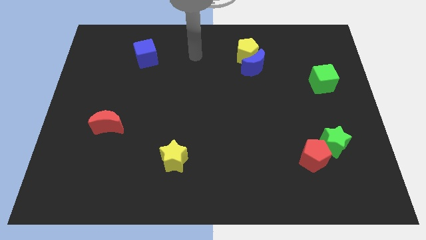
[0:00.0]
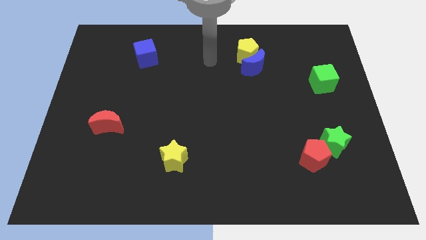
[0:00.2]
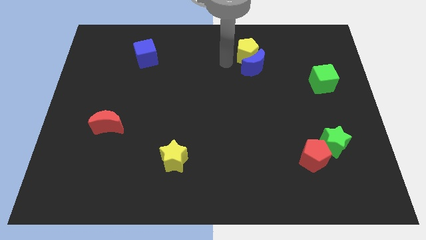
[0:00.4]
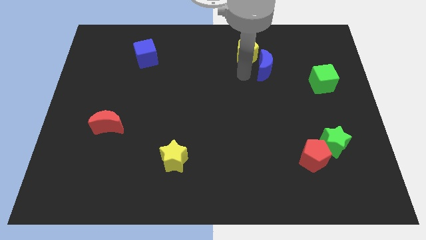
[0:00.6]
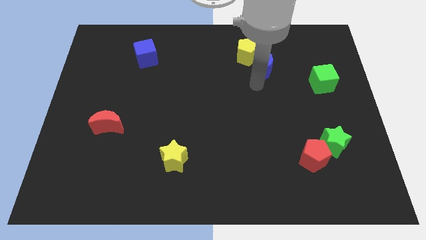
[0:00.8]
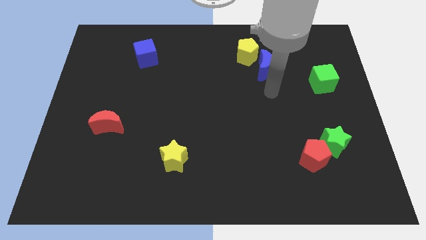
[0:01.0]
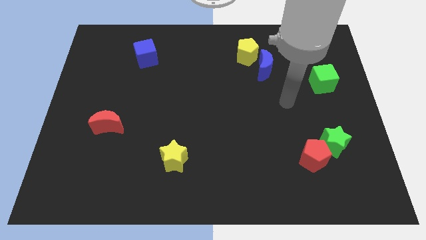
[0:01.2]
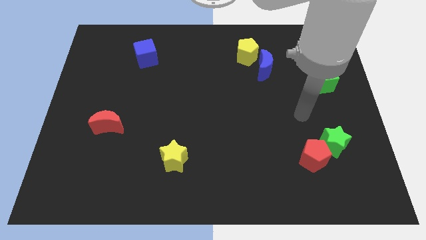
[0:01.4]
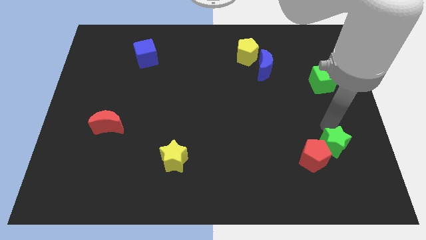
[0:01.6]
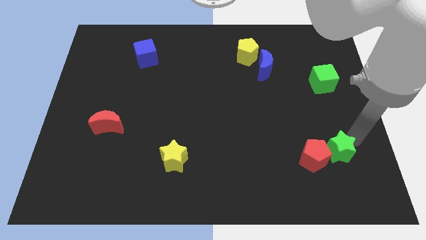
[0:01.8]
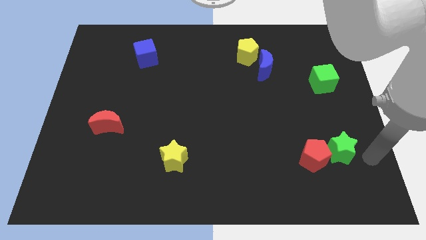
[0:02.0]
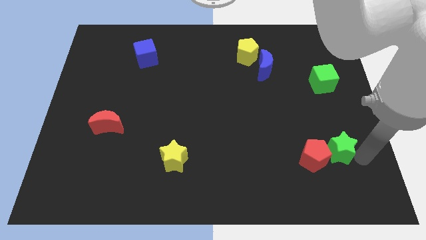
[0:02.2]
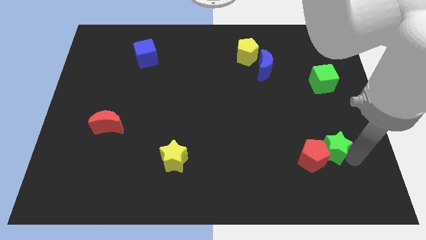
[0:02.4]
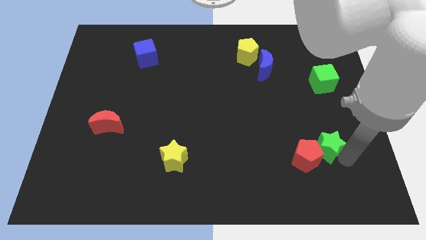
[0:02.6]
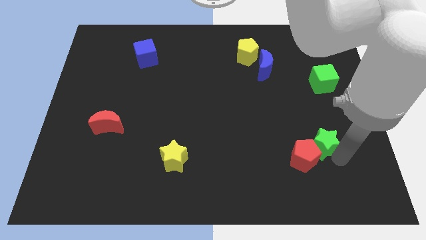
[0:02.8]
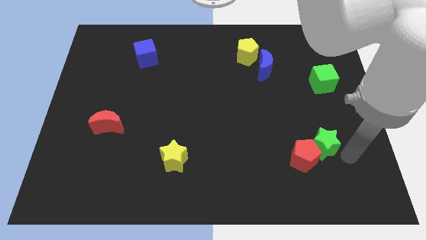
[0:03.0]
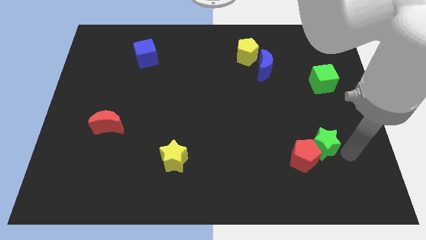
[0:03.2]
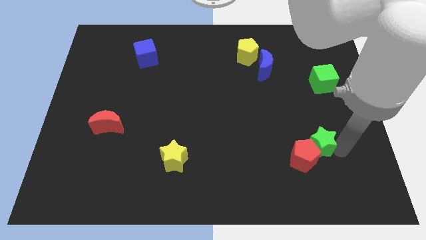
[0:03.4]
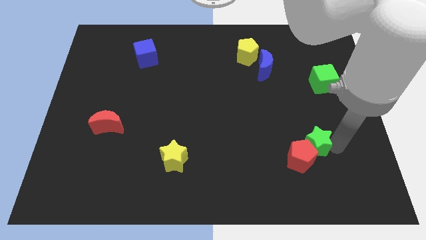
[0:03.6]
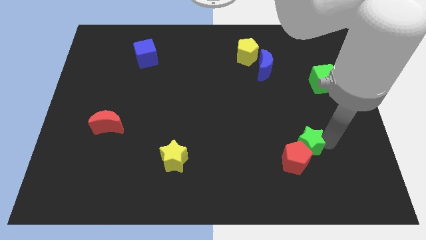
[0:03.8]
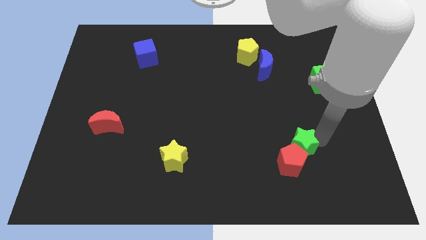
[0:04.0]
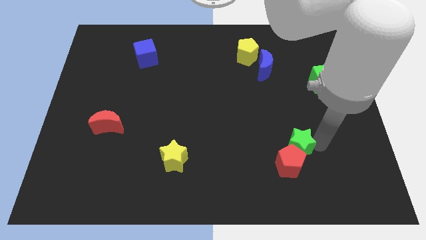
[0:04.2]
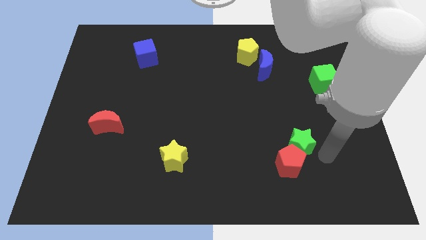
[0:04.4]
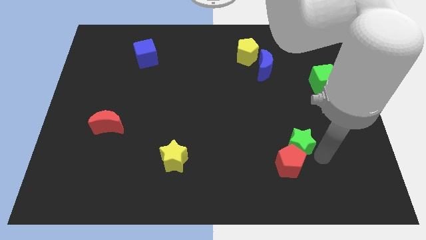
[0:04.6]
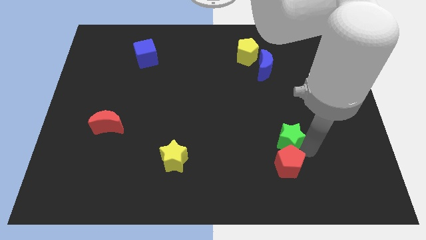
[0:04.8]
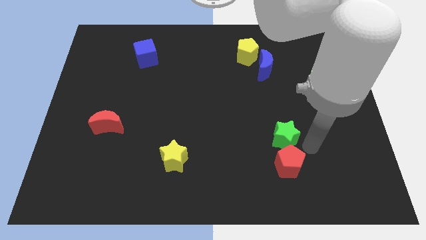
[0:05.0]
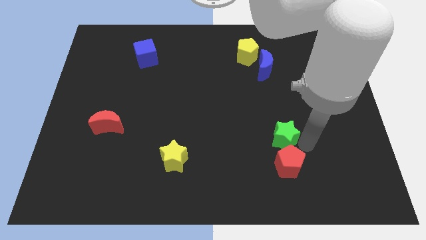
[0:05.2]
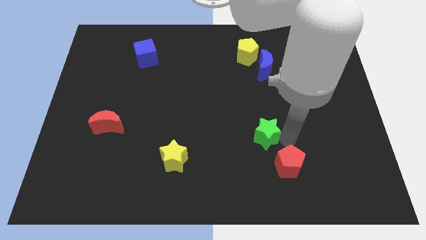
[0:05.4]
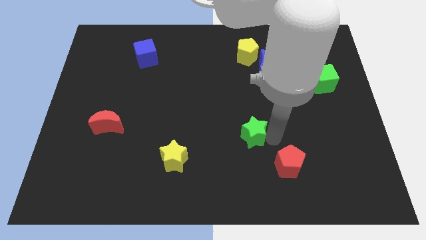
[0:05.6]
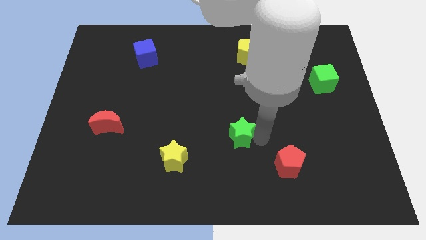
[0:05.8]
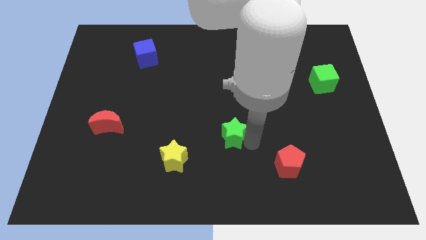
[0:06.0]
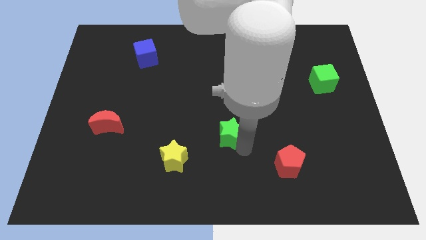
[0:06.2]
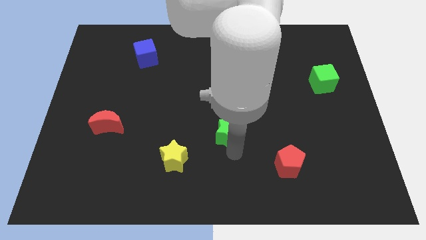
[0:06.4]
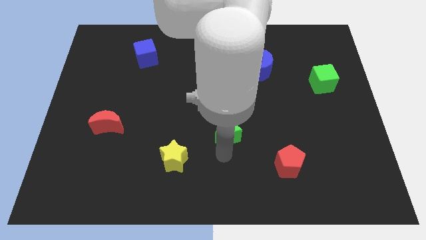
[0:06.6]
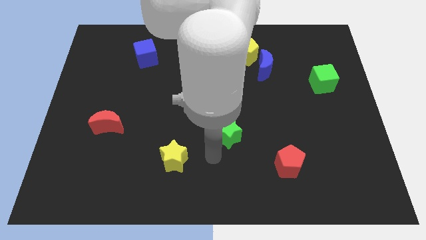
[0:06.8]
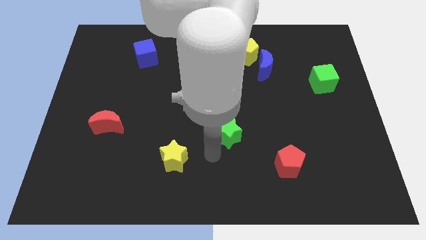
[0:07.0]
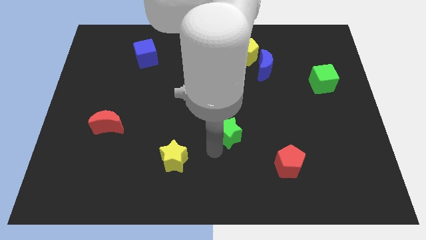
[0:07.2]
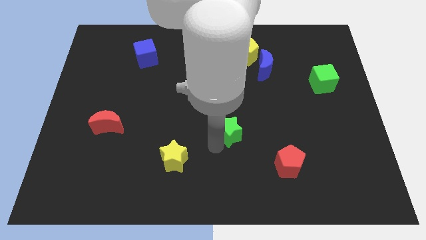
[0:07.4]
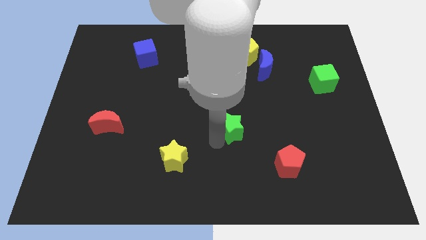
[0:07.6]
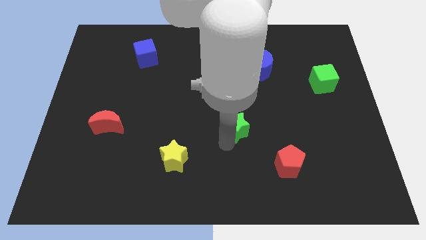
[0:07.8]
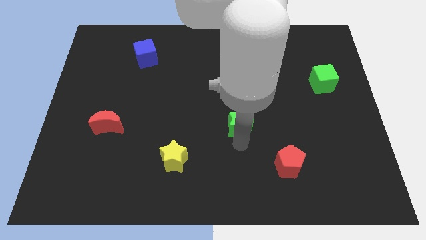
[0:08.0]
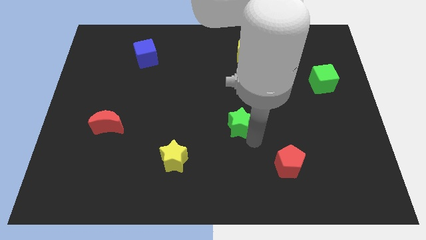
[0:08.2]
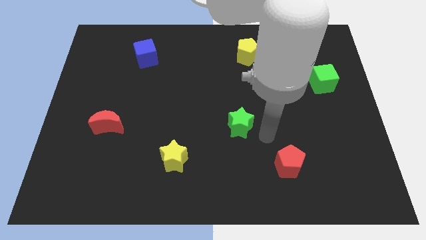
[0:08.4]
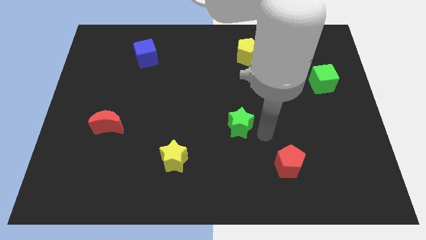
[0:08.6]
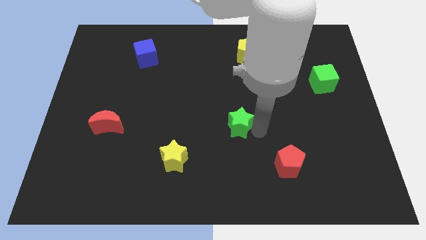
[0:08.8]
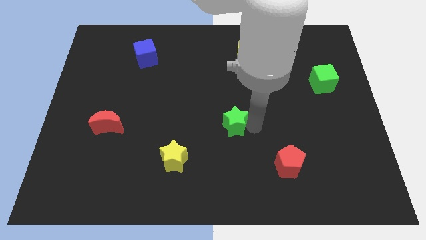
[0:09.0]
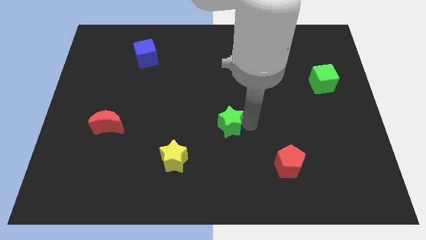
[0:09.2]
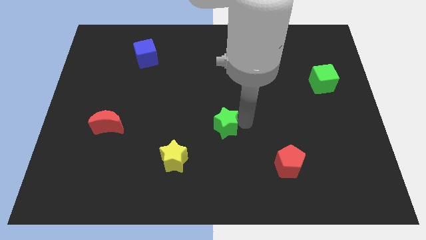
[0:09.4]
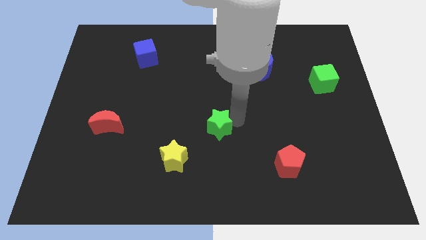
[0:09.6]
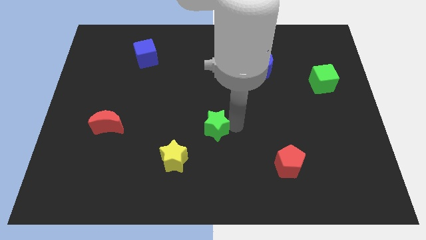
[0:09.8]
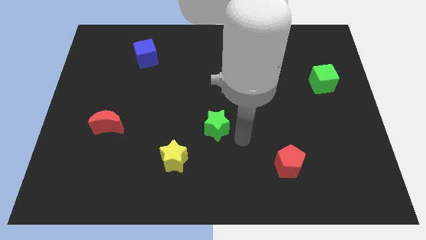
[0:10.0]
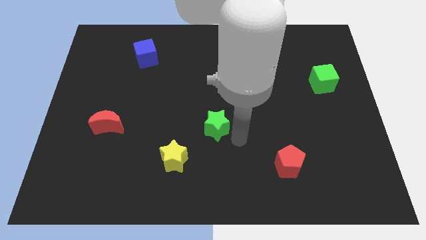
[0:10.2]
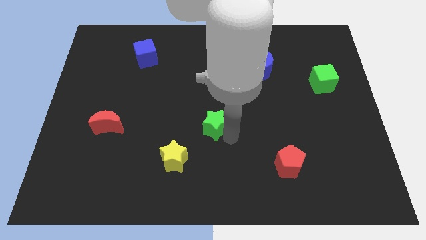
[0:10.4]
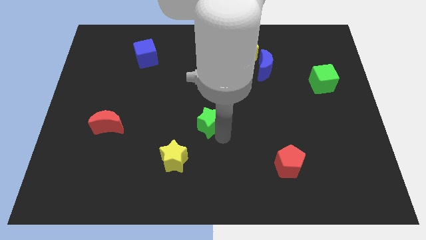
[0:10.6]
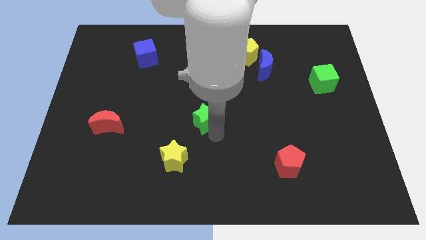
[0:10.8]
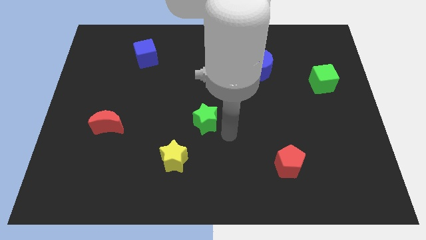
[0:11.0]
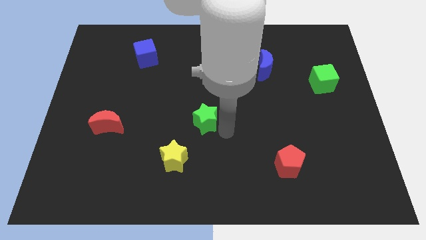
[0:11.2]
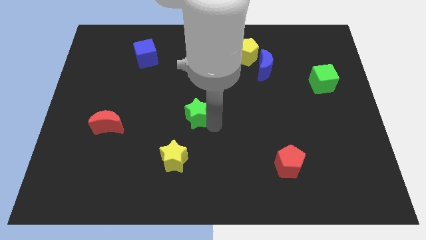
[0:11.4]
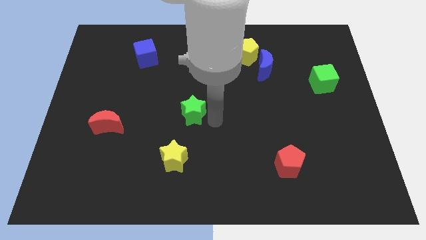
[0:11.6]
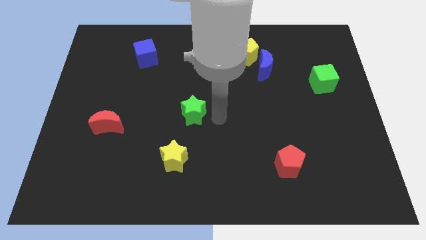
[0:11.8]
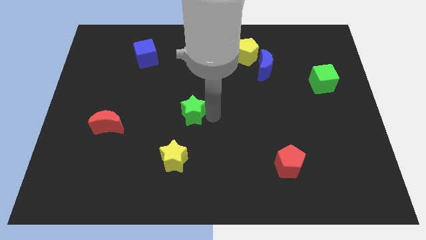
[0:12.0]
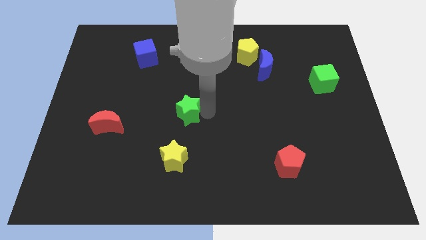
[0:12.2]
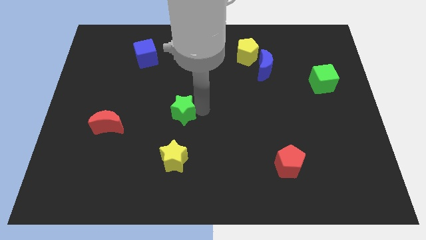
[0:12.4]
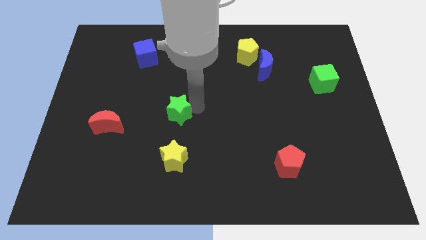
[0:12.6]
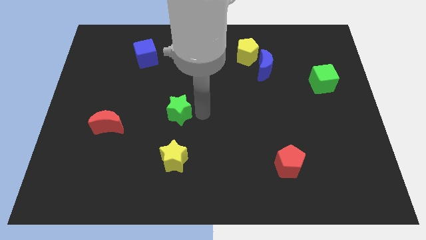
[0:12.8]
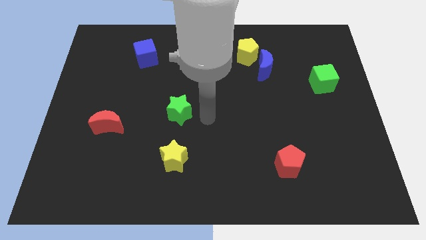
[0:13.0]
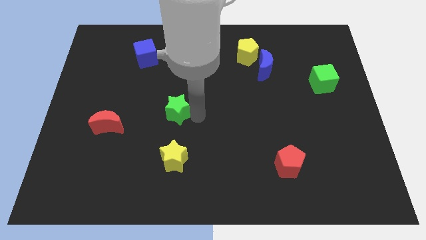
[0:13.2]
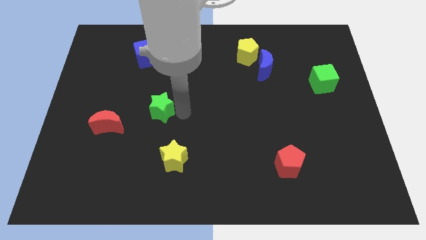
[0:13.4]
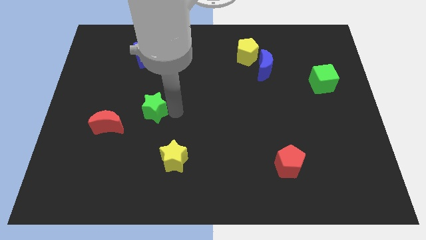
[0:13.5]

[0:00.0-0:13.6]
slide the green star to the top right of the red moon

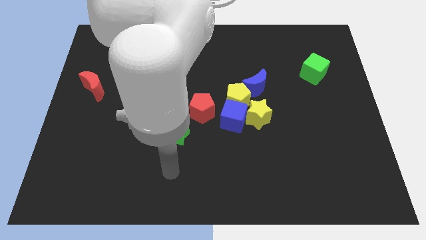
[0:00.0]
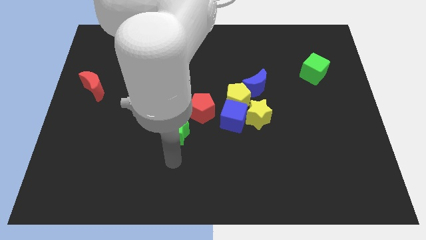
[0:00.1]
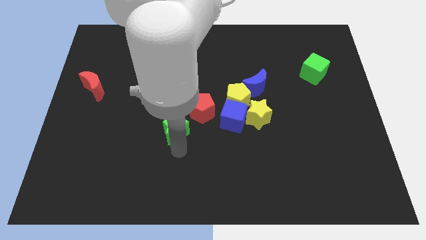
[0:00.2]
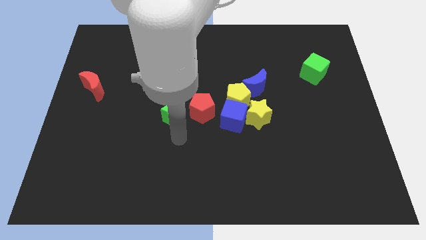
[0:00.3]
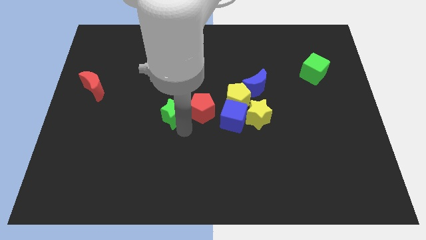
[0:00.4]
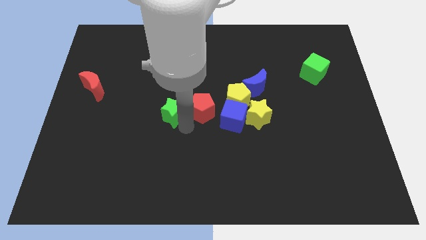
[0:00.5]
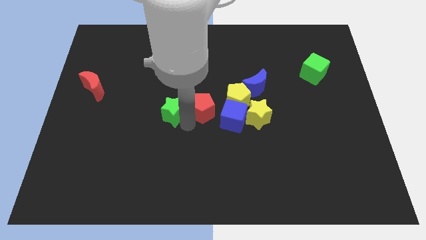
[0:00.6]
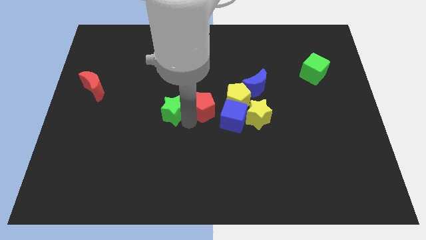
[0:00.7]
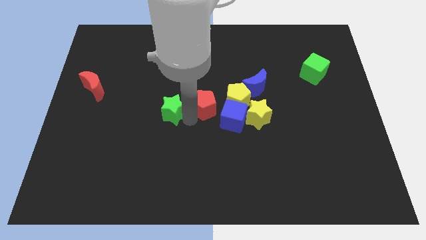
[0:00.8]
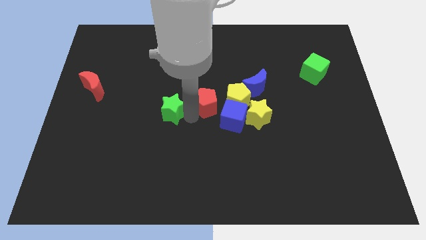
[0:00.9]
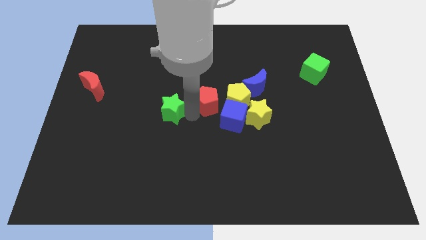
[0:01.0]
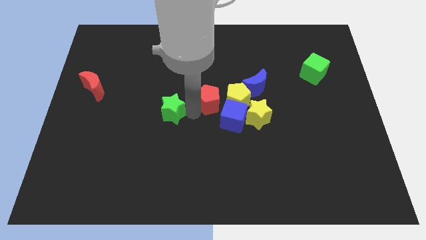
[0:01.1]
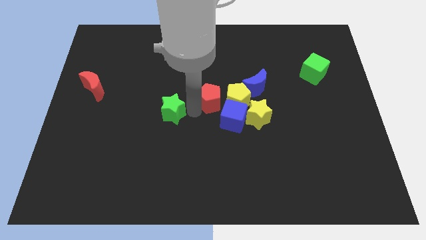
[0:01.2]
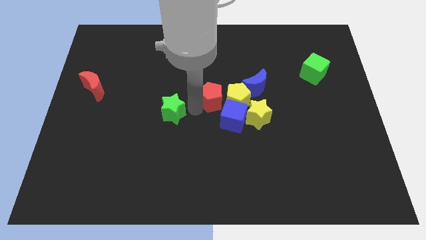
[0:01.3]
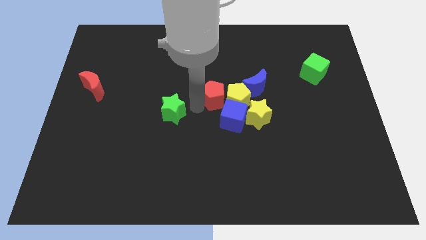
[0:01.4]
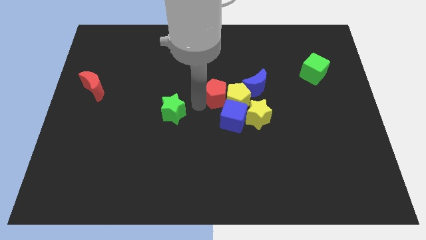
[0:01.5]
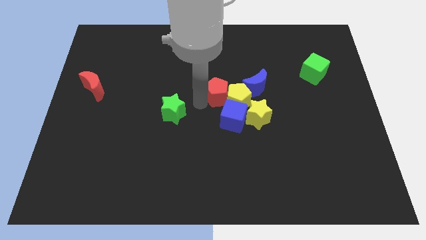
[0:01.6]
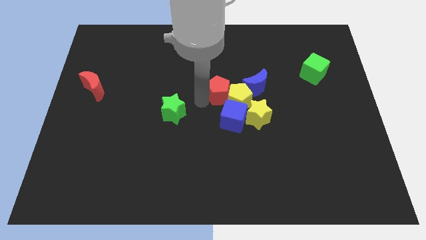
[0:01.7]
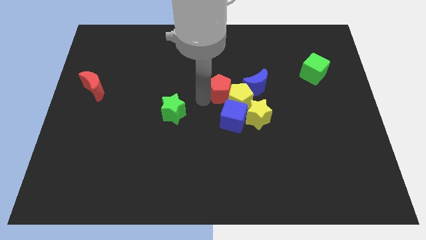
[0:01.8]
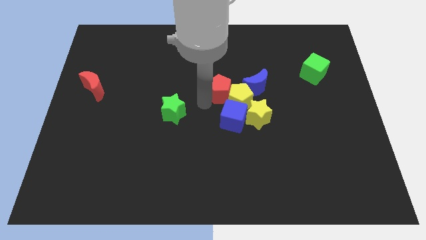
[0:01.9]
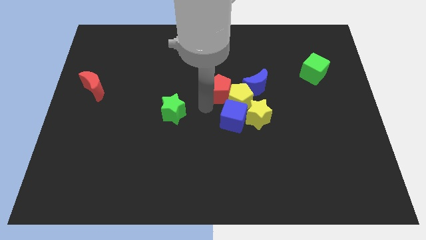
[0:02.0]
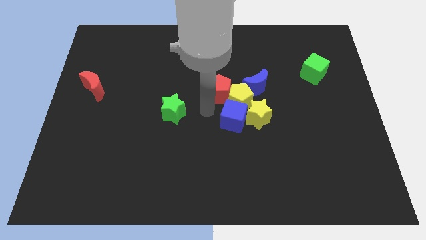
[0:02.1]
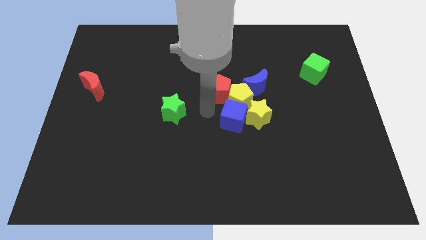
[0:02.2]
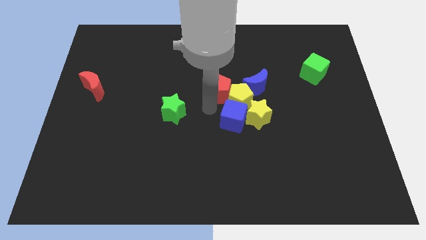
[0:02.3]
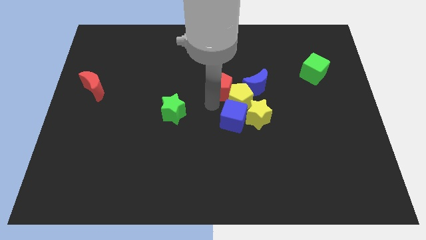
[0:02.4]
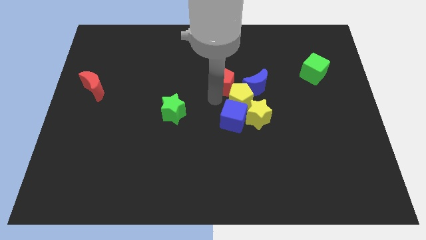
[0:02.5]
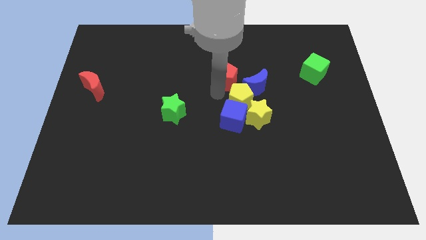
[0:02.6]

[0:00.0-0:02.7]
move the red pentagon to the top left of the blue moon
